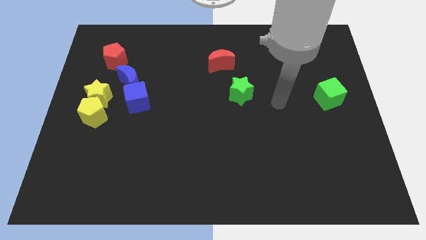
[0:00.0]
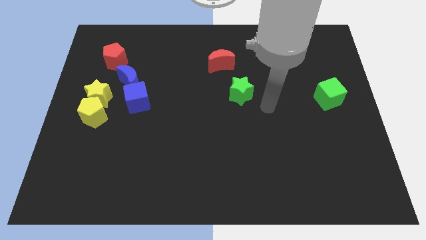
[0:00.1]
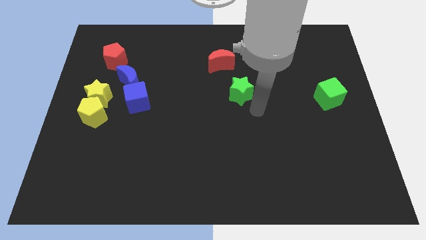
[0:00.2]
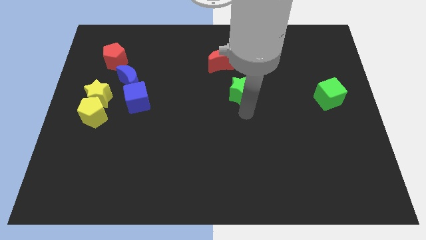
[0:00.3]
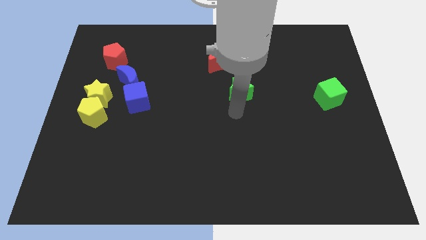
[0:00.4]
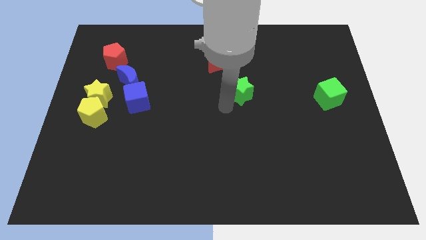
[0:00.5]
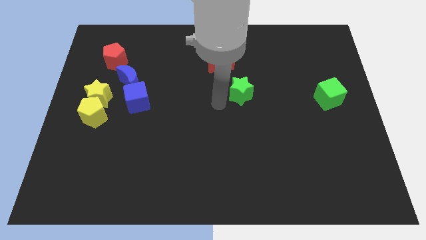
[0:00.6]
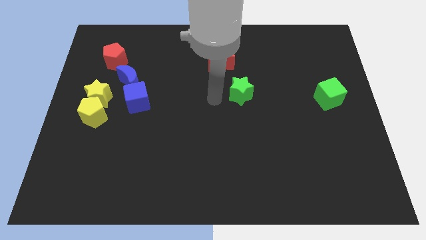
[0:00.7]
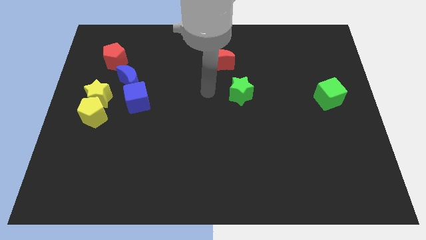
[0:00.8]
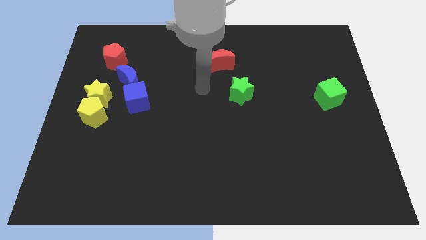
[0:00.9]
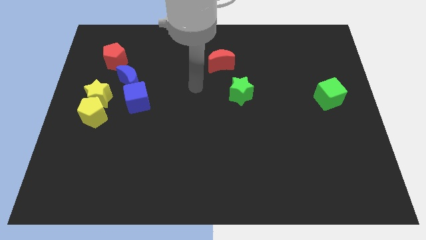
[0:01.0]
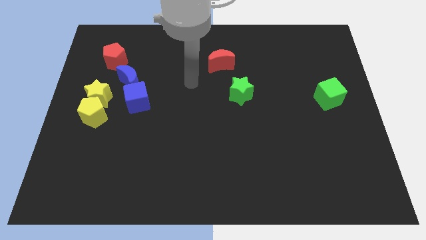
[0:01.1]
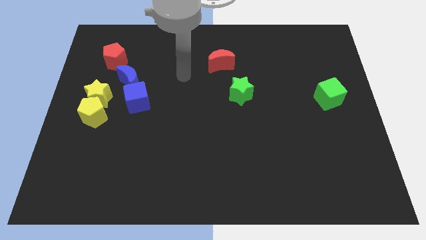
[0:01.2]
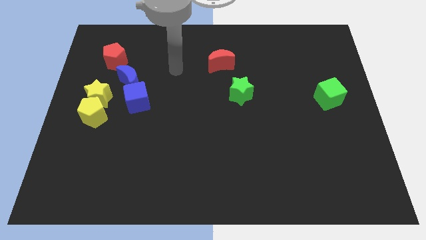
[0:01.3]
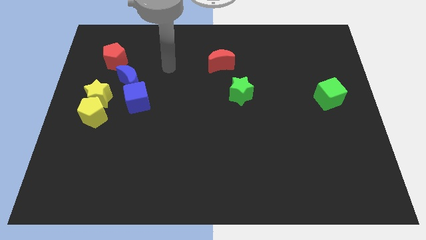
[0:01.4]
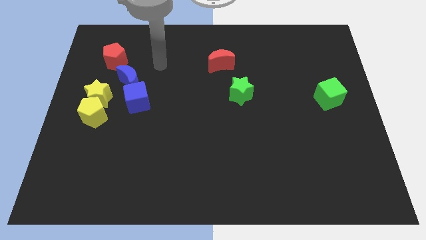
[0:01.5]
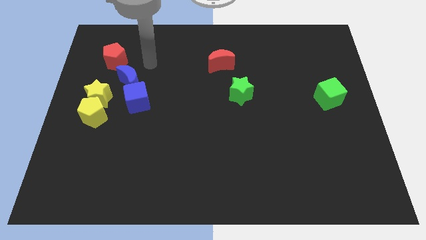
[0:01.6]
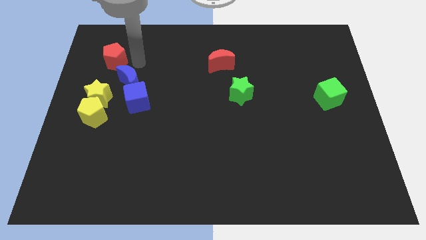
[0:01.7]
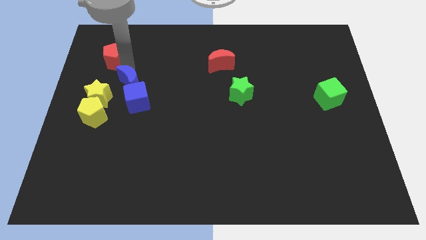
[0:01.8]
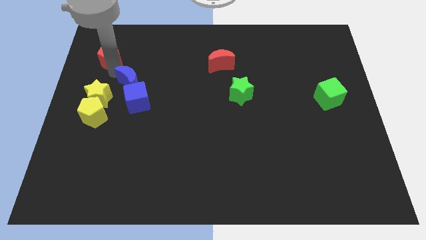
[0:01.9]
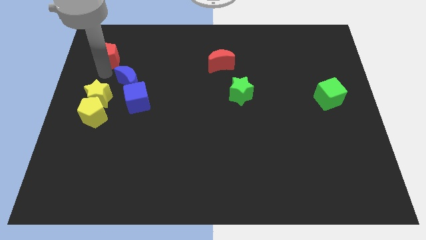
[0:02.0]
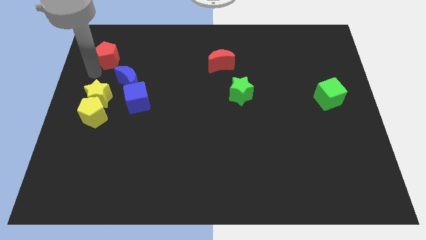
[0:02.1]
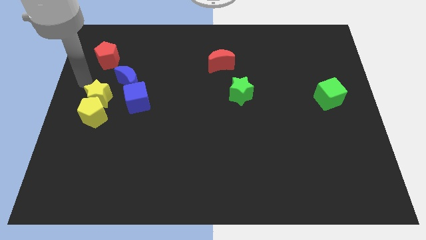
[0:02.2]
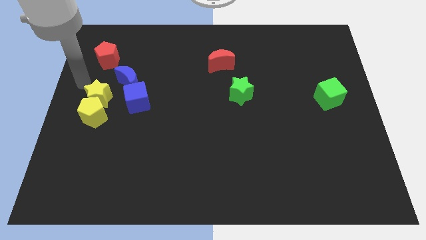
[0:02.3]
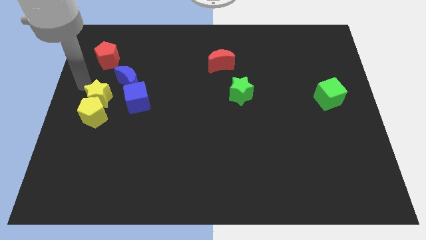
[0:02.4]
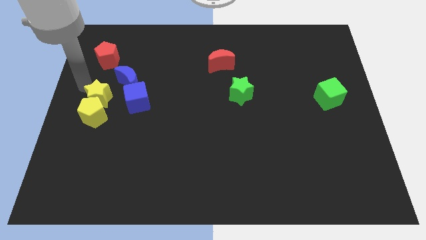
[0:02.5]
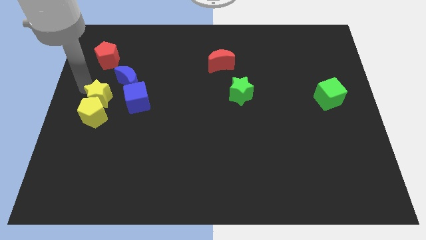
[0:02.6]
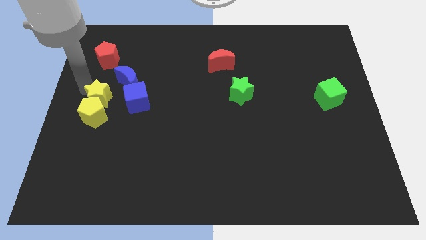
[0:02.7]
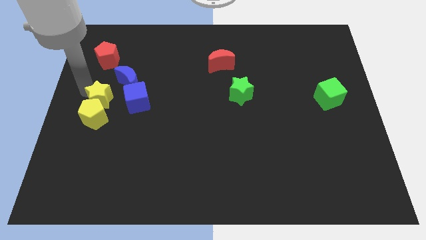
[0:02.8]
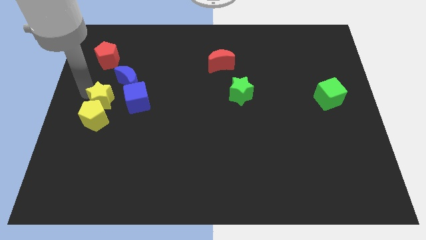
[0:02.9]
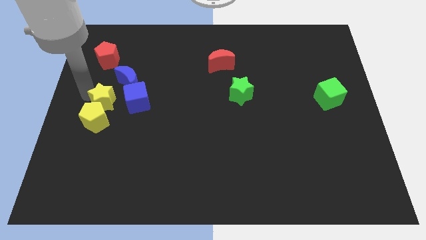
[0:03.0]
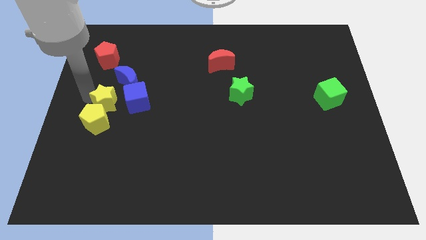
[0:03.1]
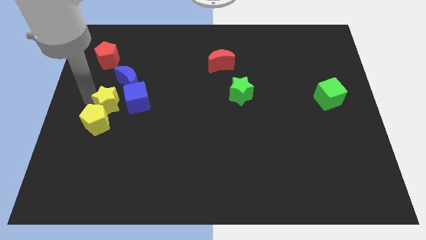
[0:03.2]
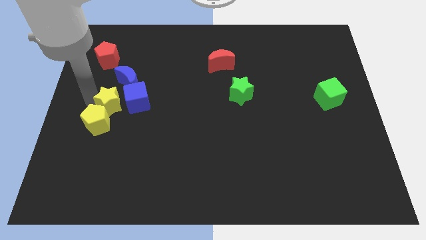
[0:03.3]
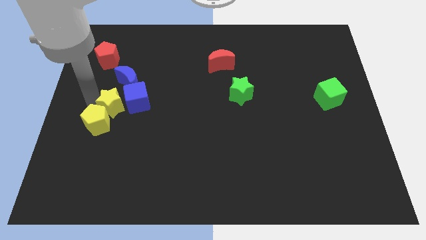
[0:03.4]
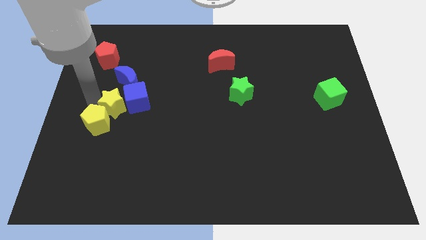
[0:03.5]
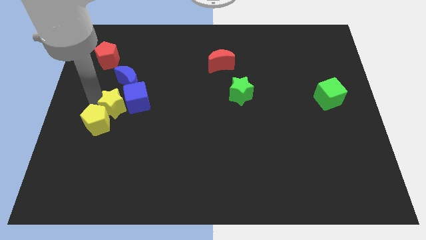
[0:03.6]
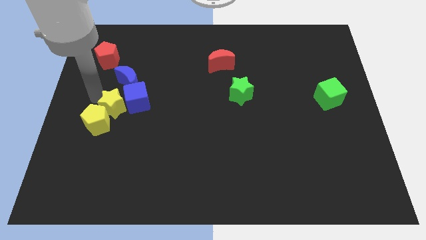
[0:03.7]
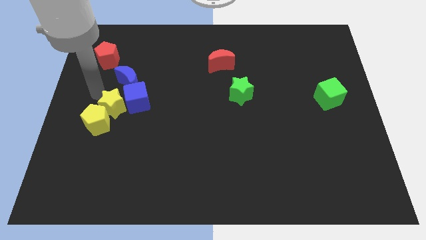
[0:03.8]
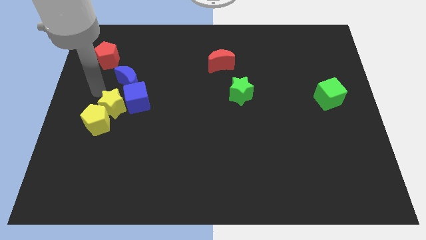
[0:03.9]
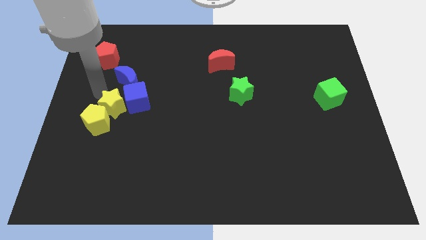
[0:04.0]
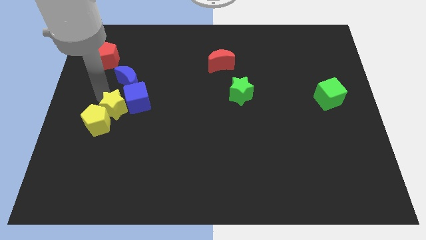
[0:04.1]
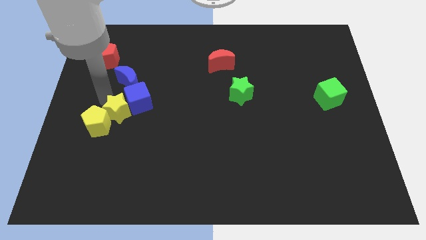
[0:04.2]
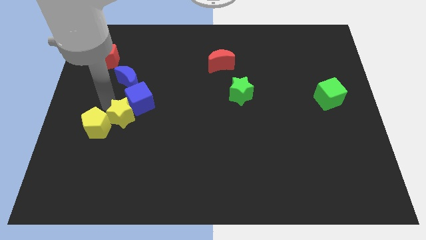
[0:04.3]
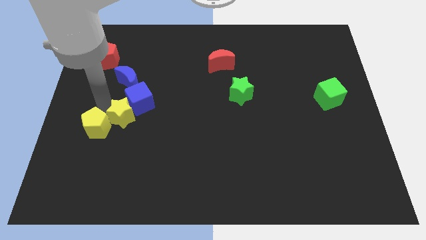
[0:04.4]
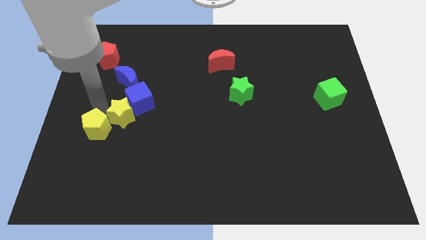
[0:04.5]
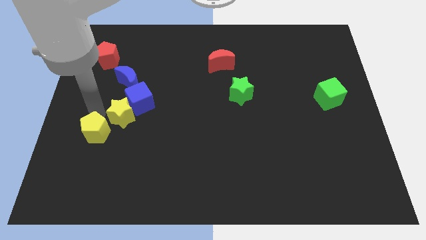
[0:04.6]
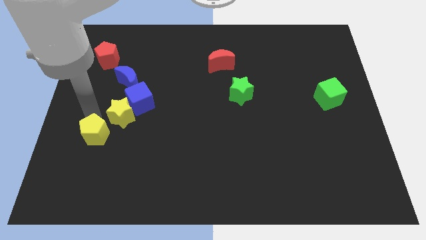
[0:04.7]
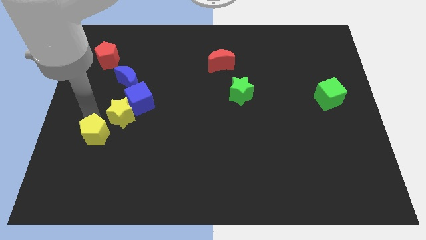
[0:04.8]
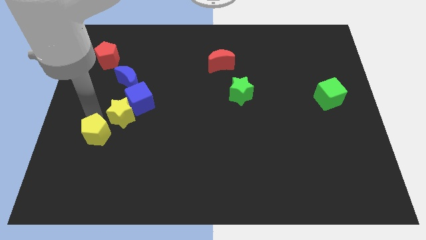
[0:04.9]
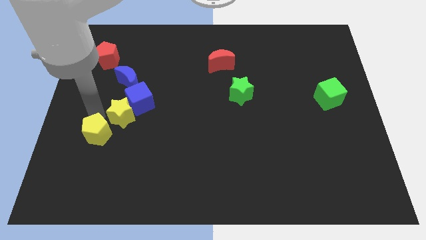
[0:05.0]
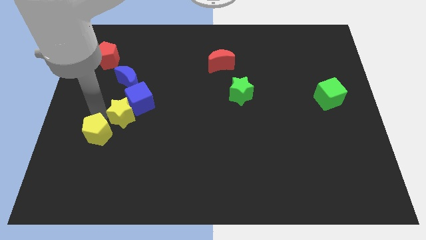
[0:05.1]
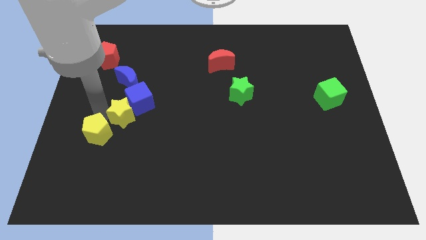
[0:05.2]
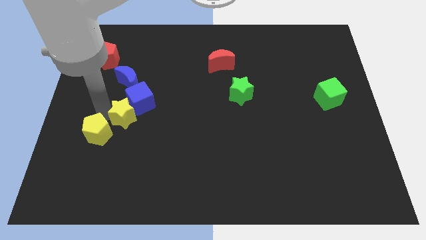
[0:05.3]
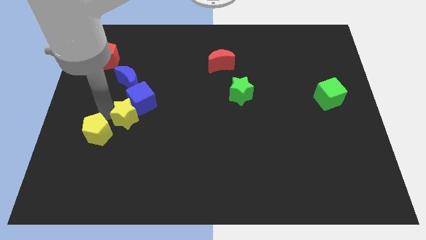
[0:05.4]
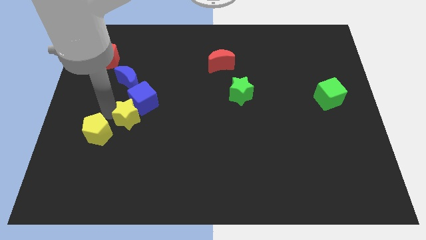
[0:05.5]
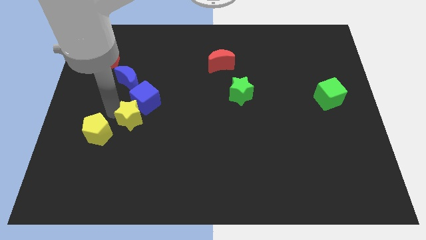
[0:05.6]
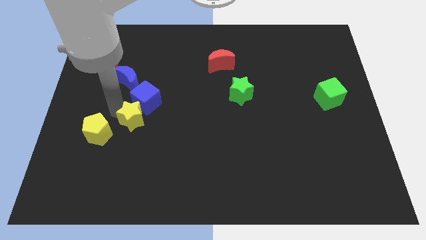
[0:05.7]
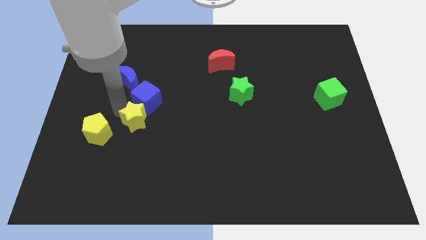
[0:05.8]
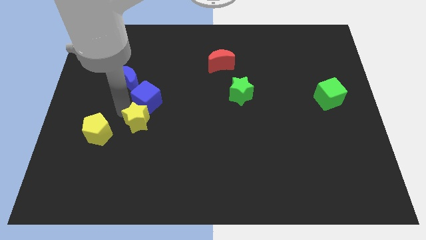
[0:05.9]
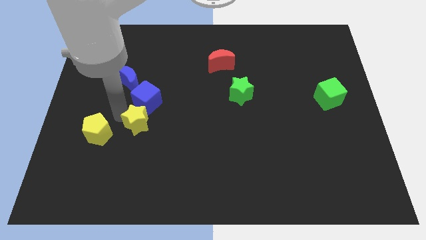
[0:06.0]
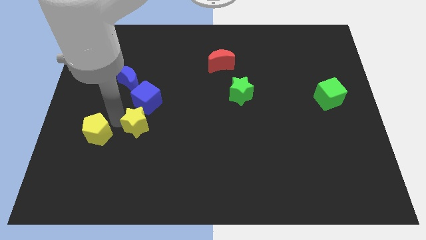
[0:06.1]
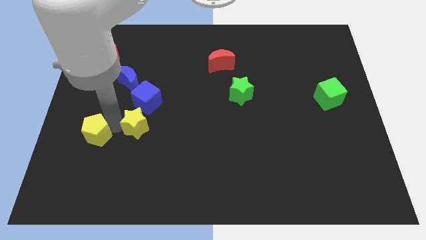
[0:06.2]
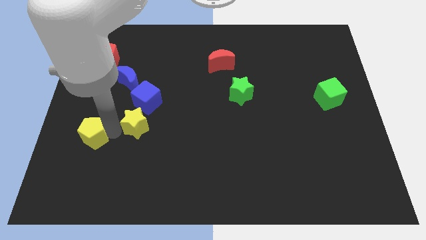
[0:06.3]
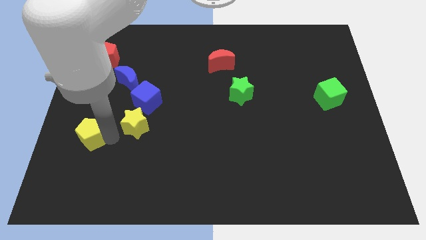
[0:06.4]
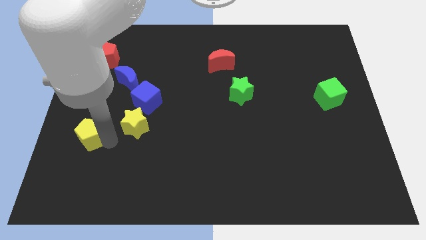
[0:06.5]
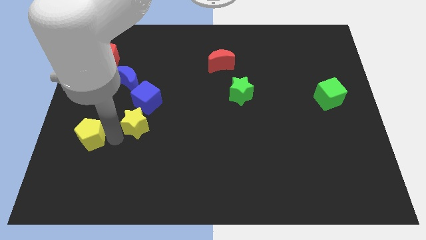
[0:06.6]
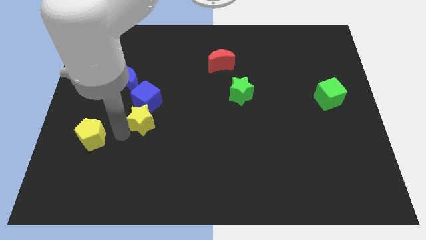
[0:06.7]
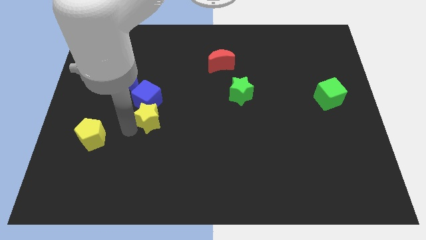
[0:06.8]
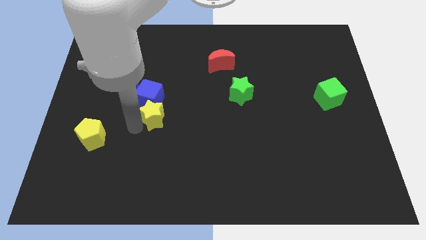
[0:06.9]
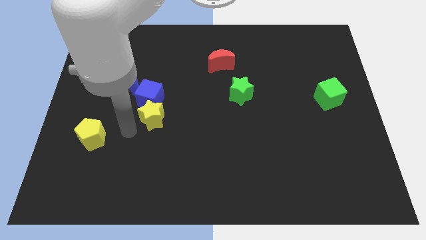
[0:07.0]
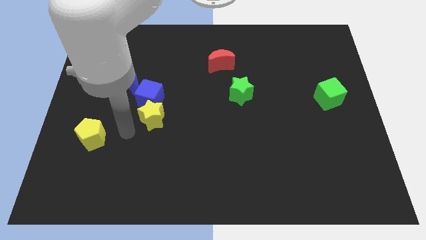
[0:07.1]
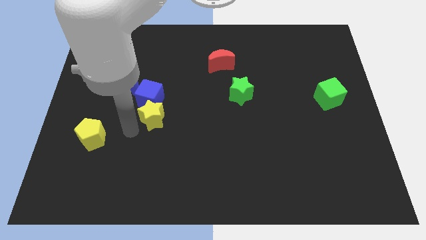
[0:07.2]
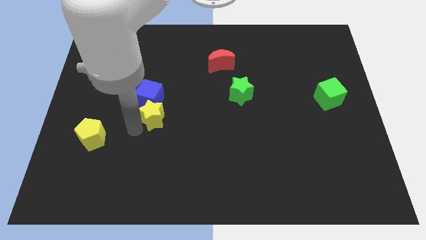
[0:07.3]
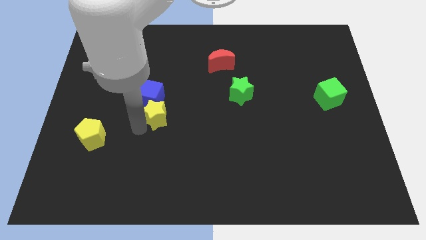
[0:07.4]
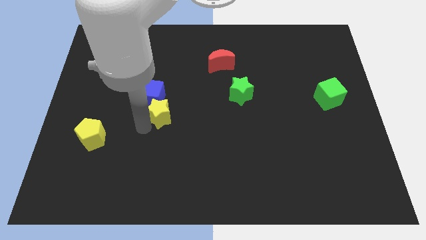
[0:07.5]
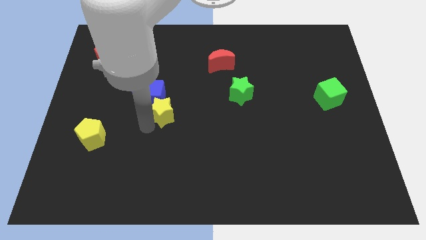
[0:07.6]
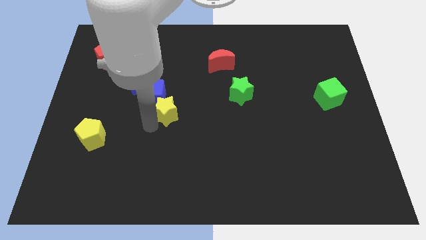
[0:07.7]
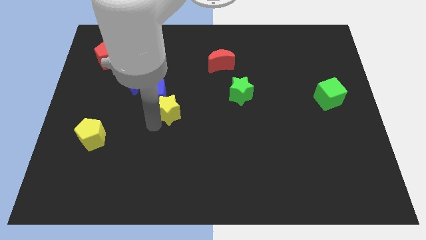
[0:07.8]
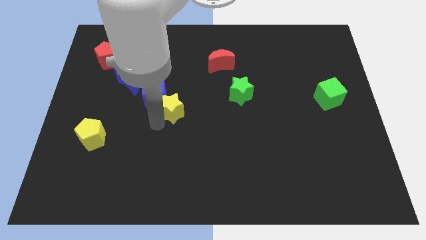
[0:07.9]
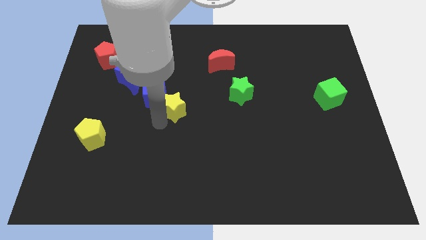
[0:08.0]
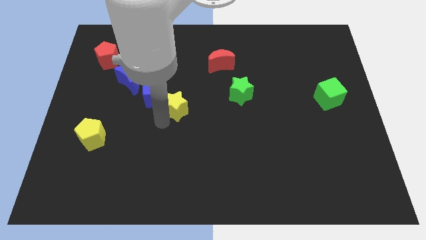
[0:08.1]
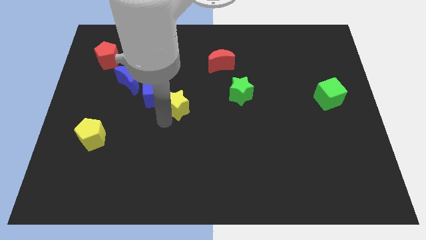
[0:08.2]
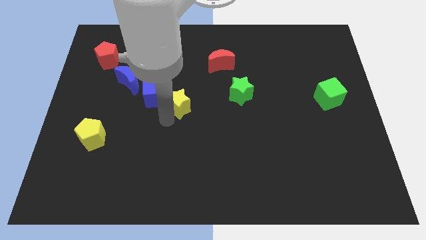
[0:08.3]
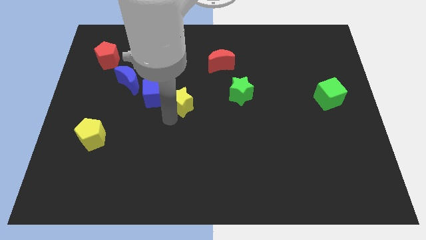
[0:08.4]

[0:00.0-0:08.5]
put the yellow star just left of the green star
